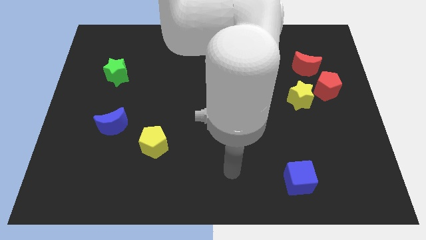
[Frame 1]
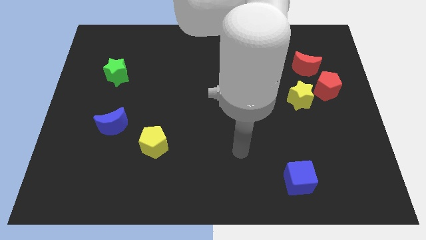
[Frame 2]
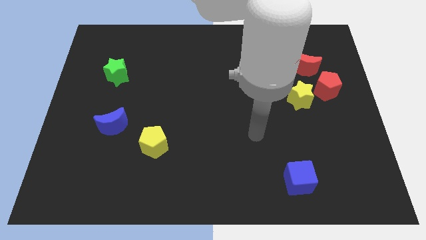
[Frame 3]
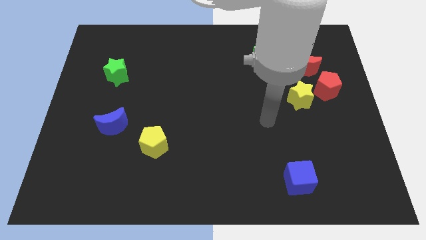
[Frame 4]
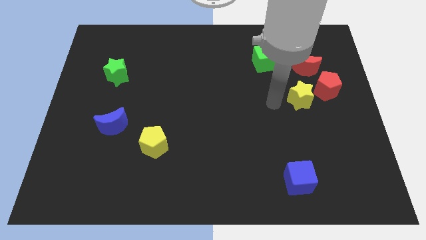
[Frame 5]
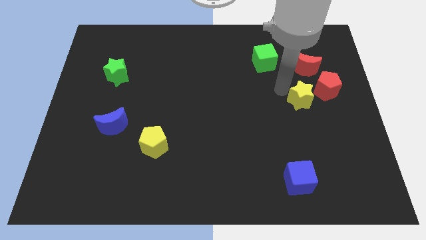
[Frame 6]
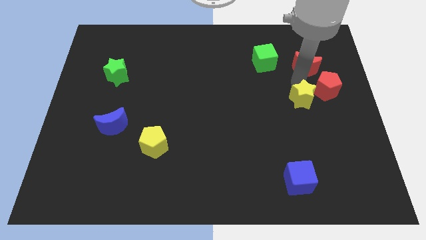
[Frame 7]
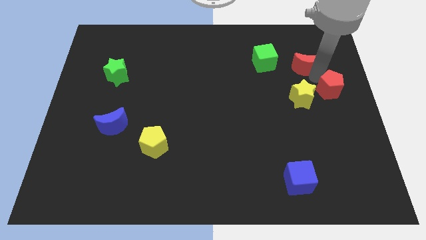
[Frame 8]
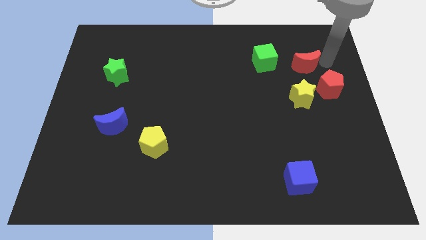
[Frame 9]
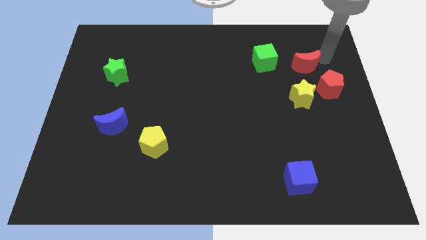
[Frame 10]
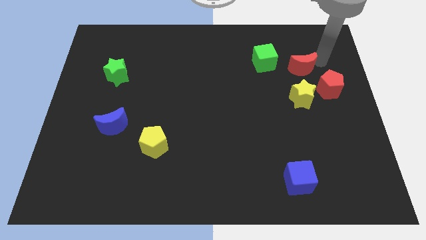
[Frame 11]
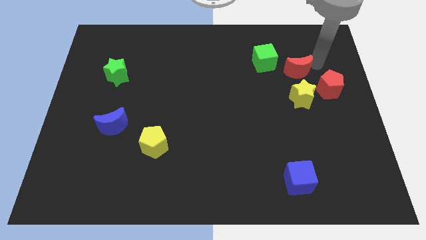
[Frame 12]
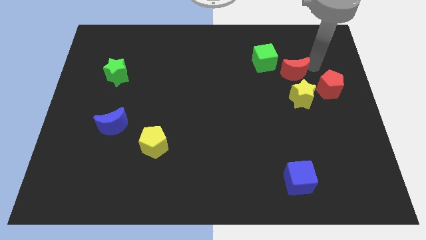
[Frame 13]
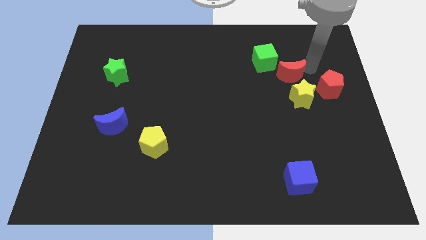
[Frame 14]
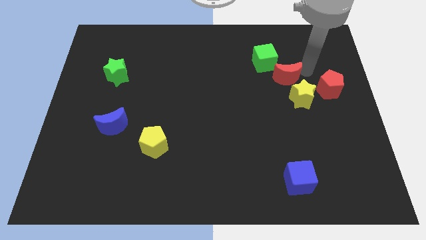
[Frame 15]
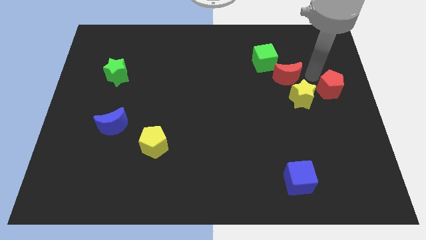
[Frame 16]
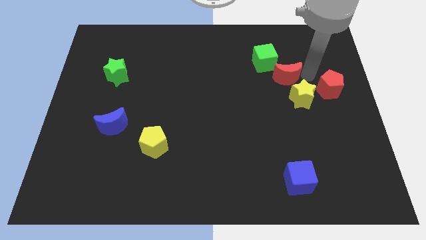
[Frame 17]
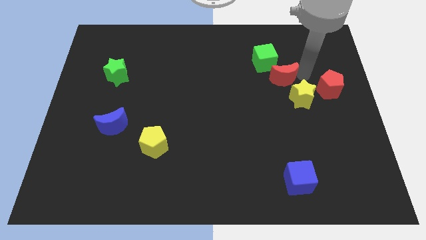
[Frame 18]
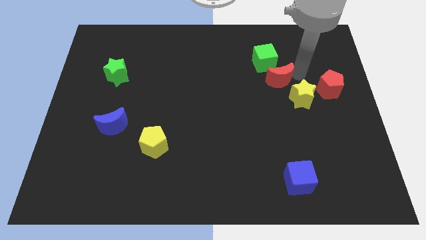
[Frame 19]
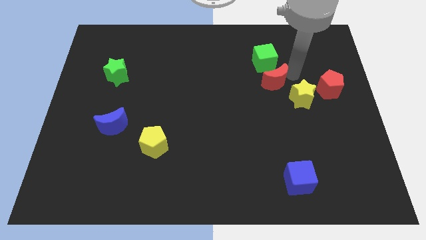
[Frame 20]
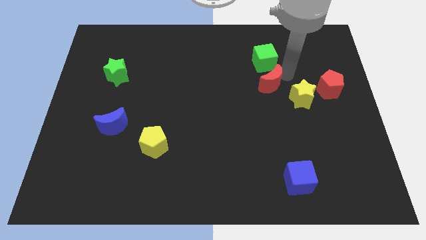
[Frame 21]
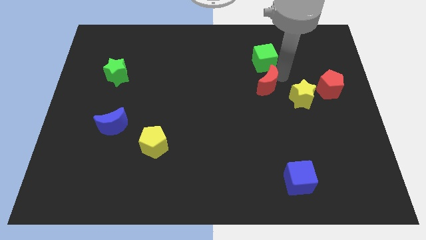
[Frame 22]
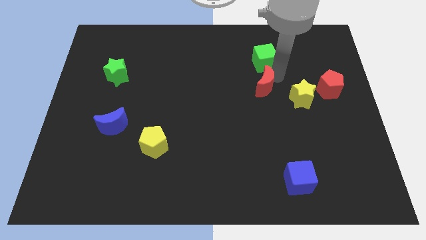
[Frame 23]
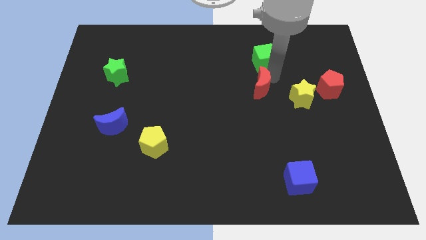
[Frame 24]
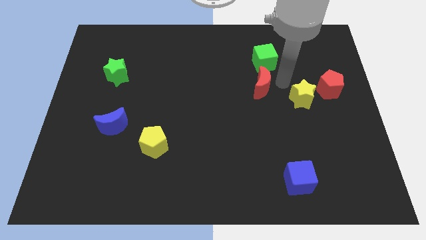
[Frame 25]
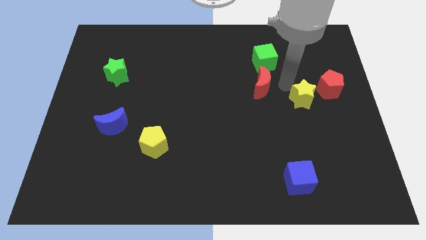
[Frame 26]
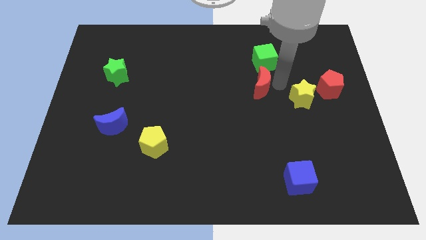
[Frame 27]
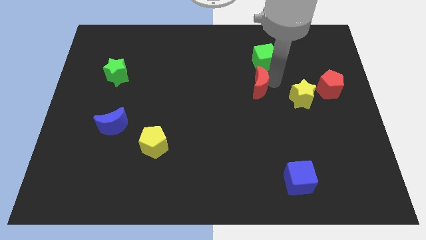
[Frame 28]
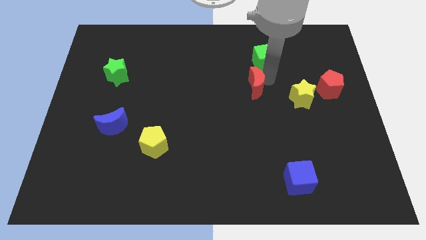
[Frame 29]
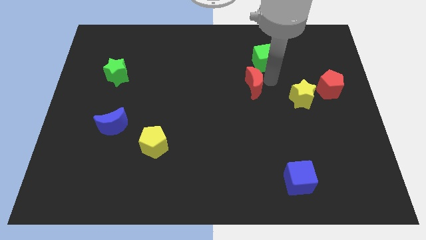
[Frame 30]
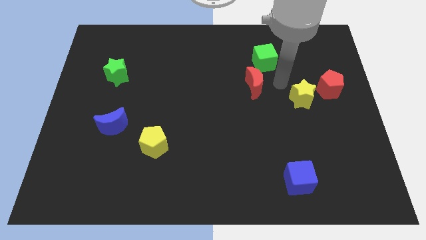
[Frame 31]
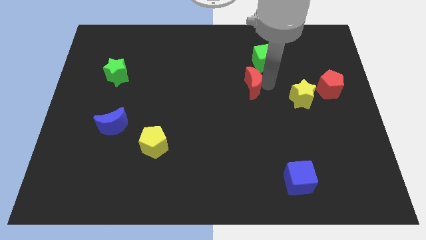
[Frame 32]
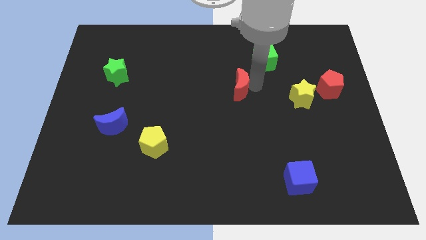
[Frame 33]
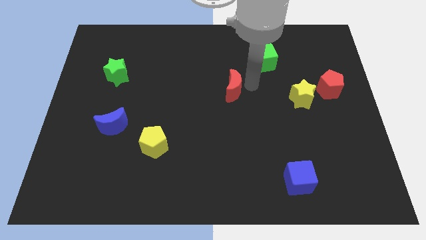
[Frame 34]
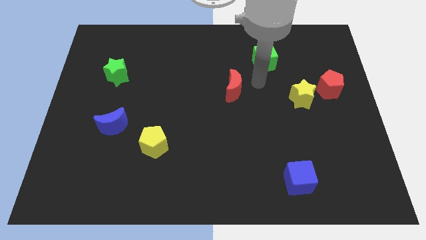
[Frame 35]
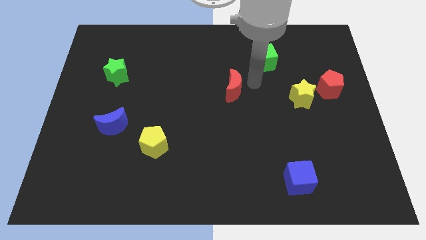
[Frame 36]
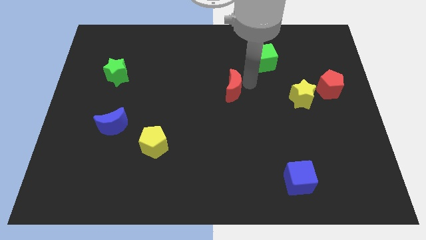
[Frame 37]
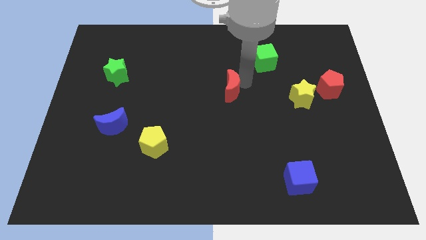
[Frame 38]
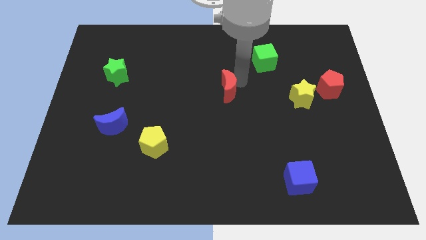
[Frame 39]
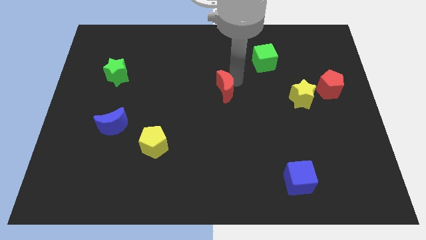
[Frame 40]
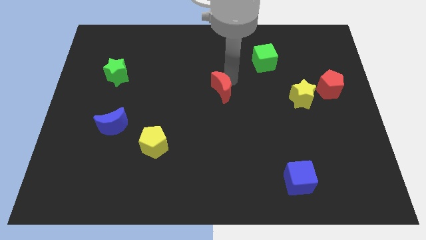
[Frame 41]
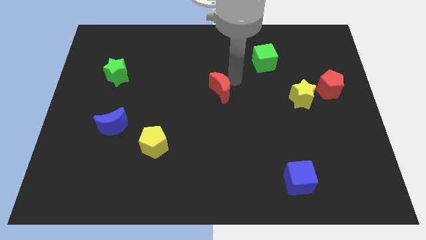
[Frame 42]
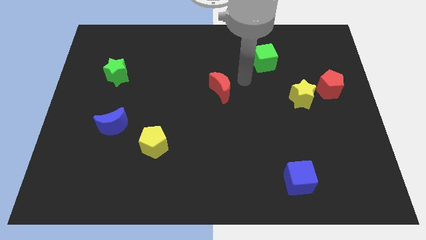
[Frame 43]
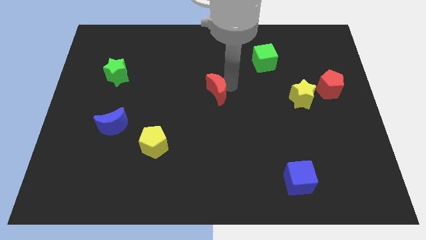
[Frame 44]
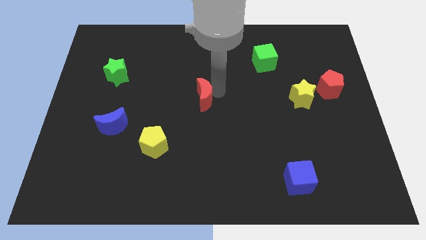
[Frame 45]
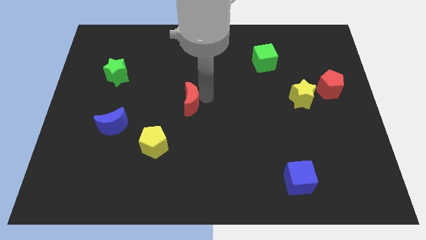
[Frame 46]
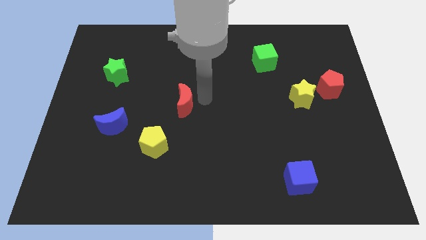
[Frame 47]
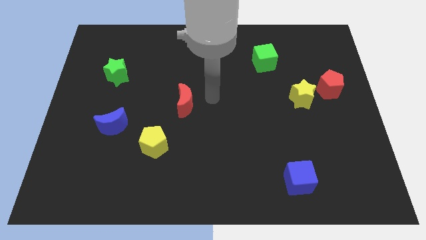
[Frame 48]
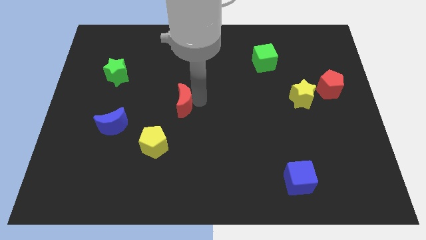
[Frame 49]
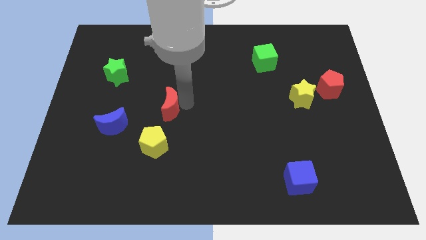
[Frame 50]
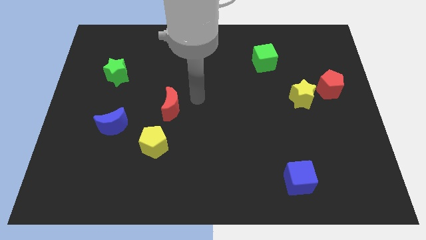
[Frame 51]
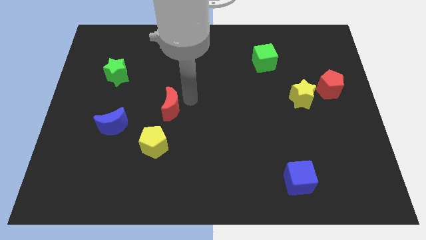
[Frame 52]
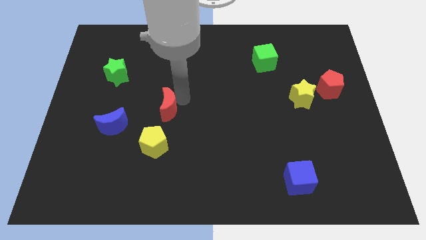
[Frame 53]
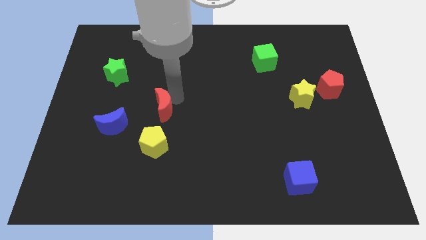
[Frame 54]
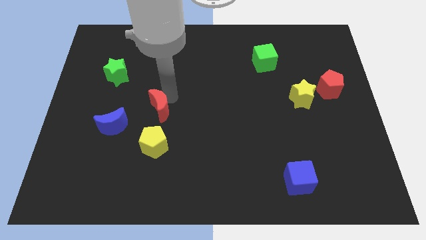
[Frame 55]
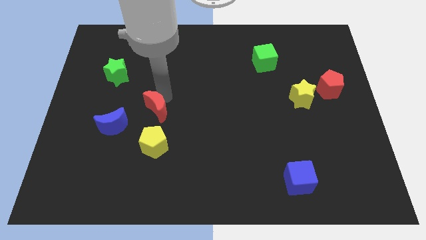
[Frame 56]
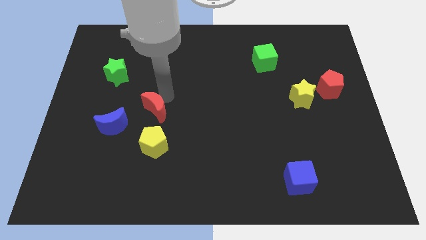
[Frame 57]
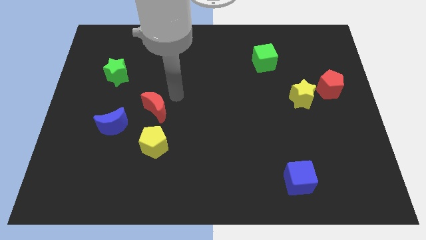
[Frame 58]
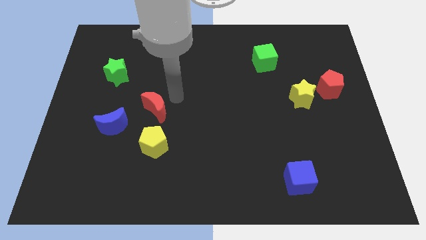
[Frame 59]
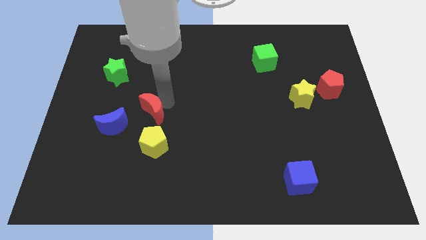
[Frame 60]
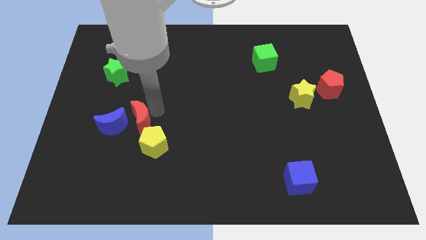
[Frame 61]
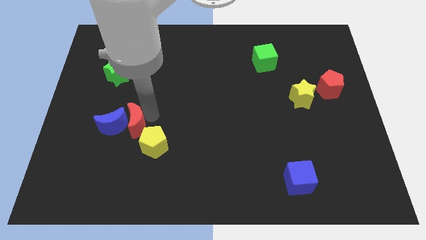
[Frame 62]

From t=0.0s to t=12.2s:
put the red moon towards the blue moon

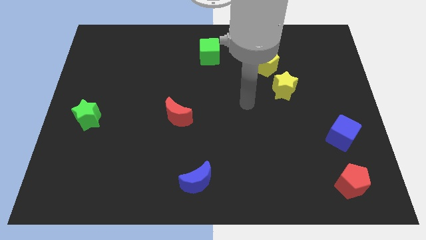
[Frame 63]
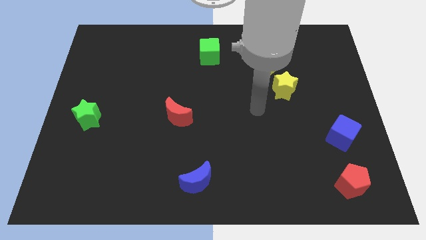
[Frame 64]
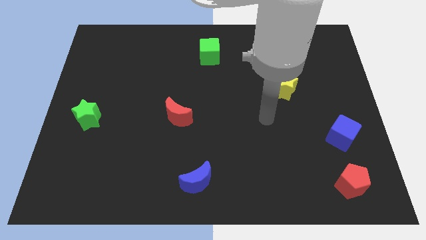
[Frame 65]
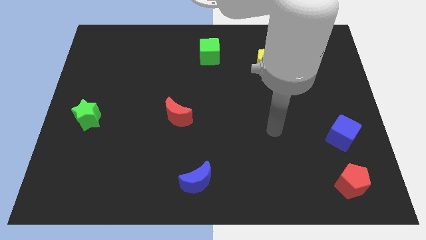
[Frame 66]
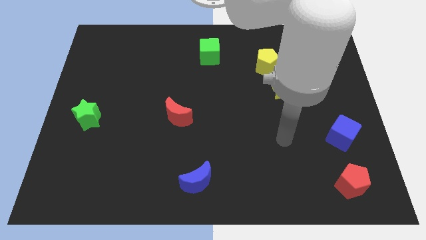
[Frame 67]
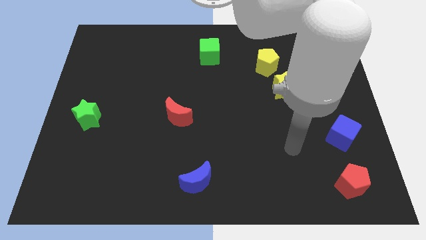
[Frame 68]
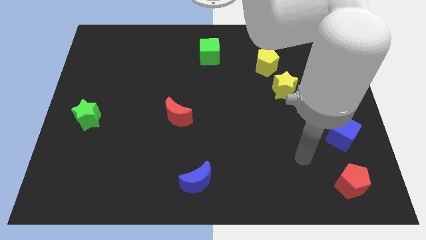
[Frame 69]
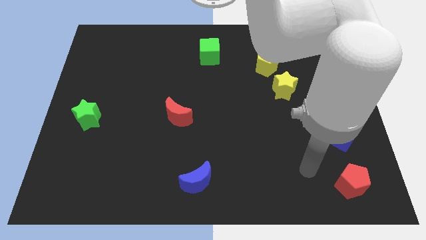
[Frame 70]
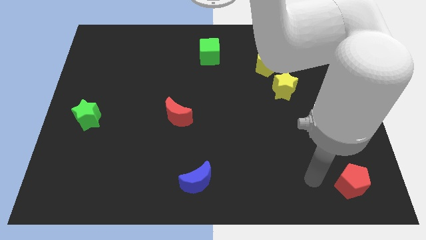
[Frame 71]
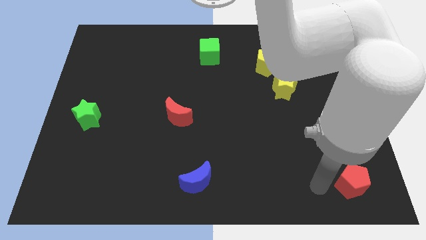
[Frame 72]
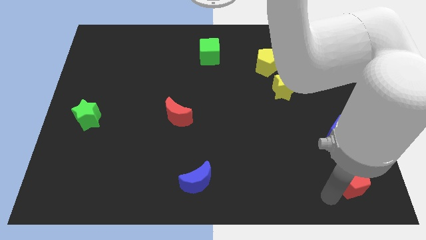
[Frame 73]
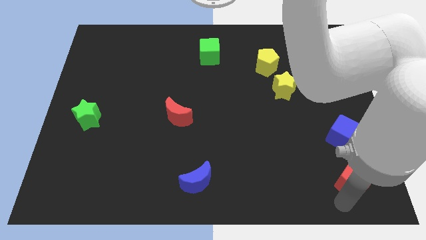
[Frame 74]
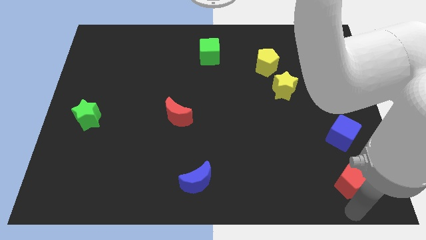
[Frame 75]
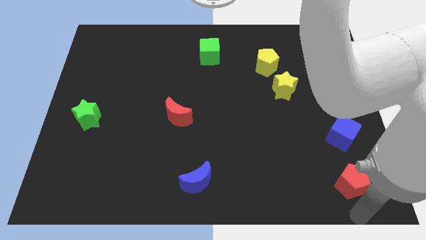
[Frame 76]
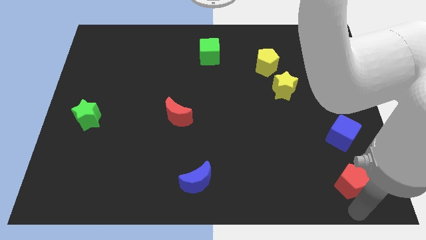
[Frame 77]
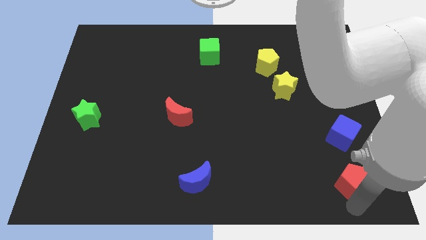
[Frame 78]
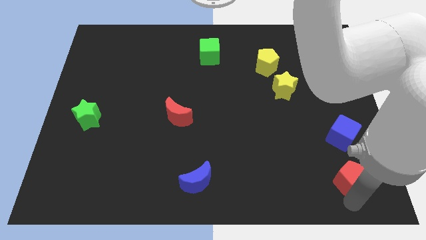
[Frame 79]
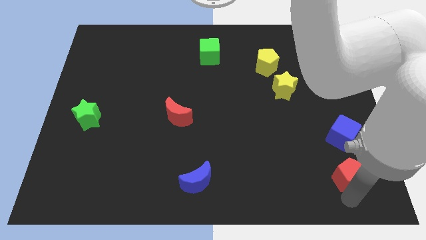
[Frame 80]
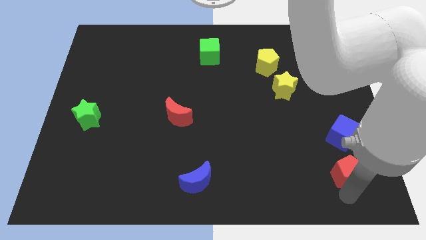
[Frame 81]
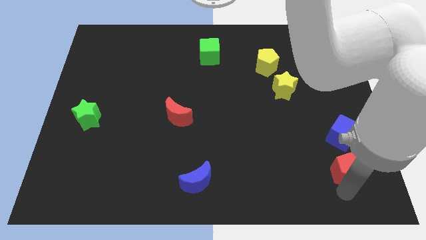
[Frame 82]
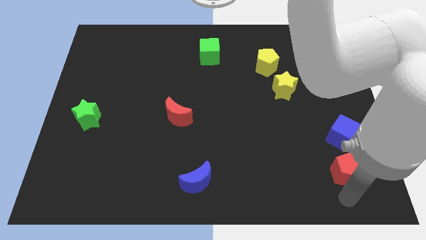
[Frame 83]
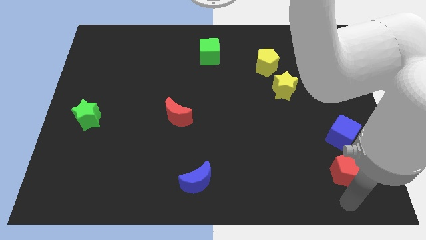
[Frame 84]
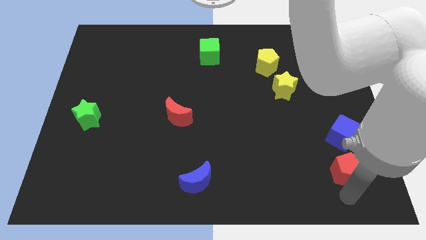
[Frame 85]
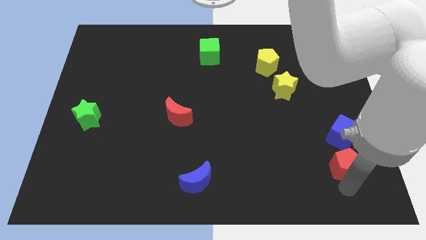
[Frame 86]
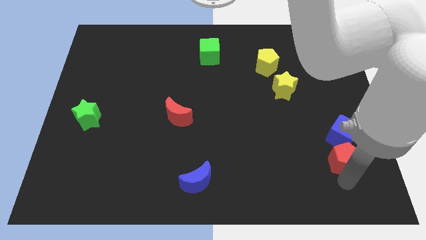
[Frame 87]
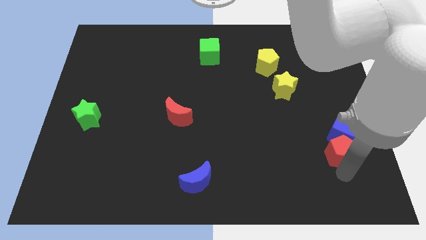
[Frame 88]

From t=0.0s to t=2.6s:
slide the red pentagon to the blue cube
